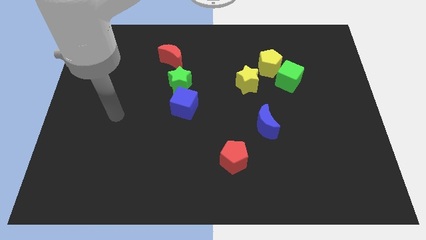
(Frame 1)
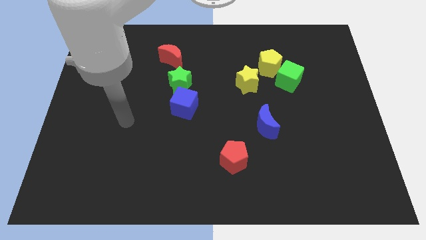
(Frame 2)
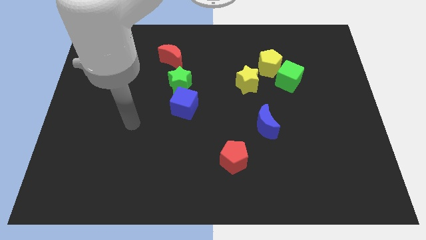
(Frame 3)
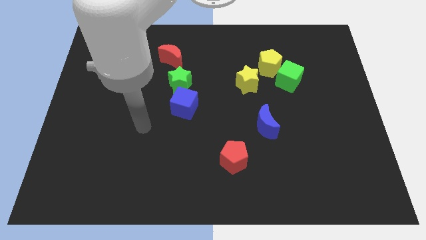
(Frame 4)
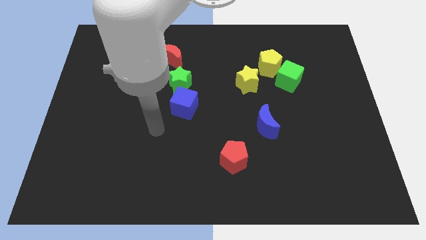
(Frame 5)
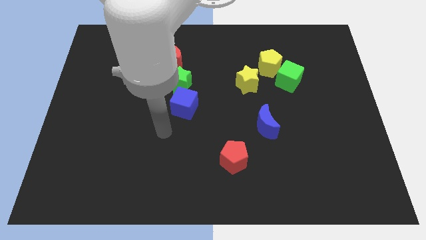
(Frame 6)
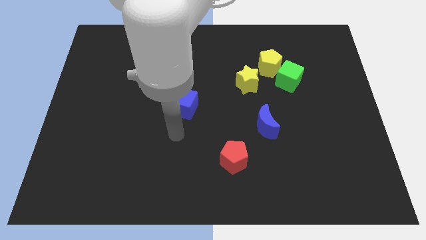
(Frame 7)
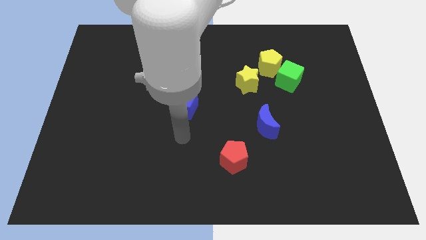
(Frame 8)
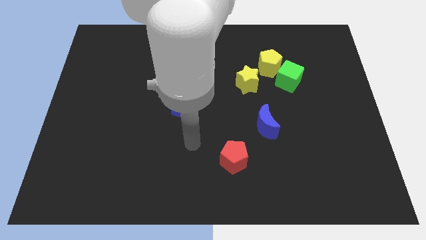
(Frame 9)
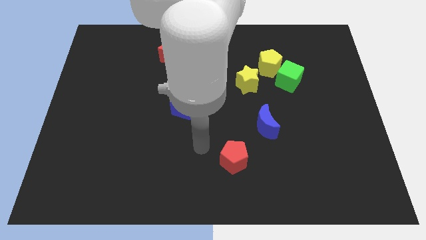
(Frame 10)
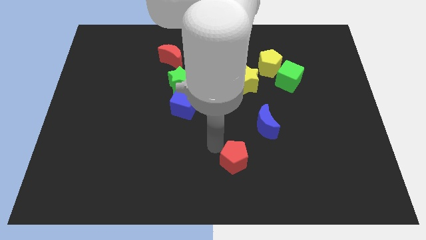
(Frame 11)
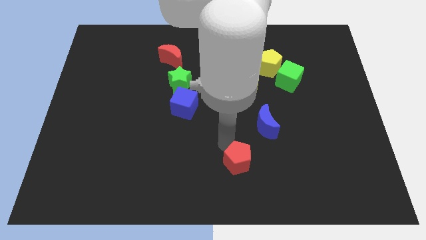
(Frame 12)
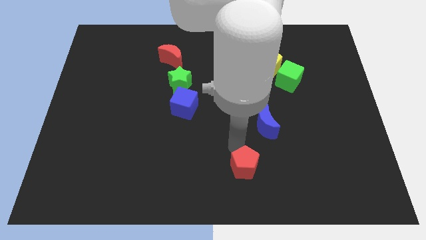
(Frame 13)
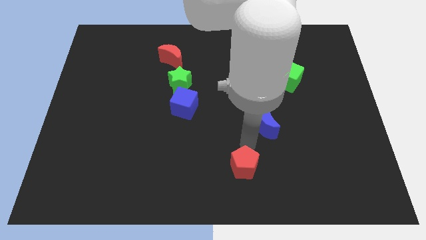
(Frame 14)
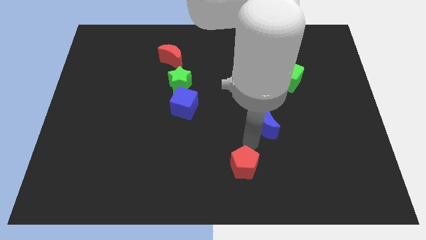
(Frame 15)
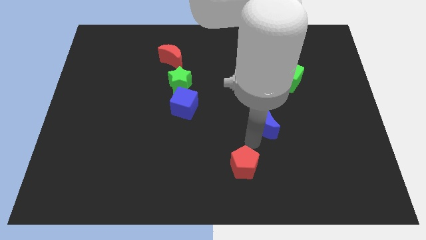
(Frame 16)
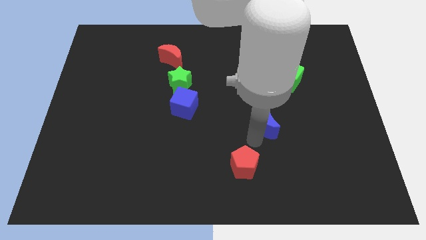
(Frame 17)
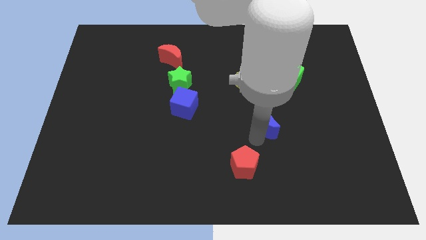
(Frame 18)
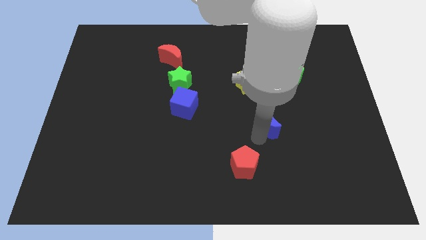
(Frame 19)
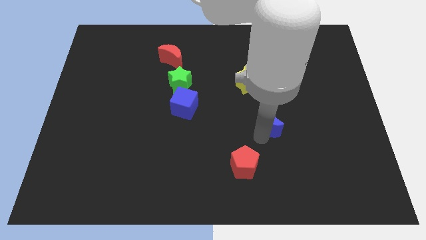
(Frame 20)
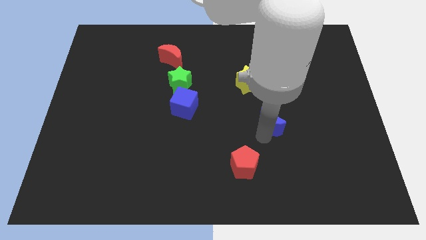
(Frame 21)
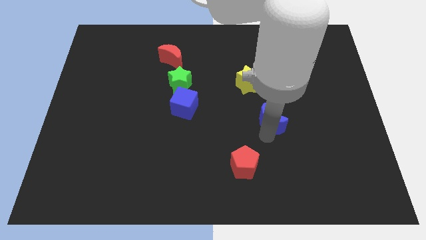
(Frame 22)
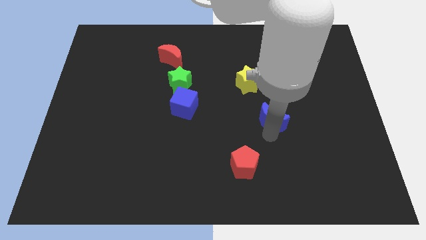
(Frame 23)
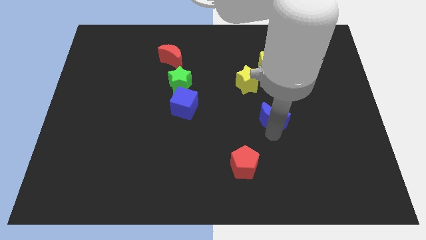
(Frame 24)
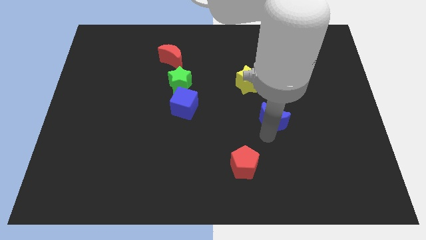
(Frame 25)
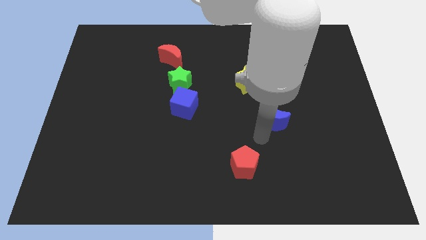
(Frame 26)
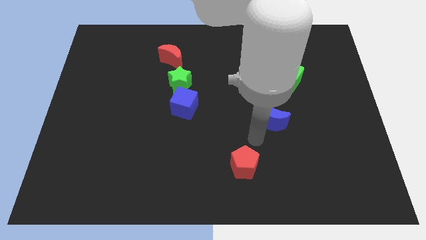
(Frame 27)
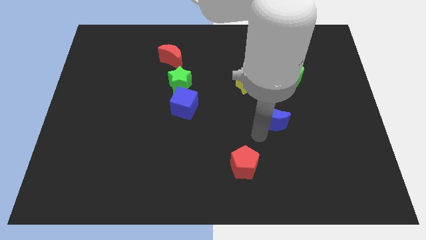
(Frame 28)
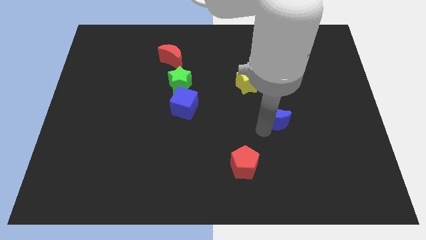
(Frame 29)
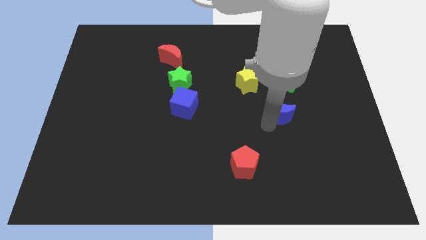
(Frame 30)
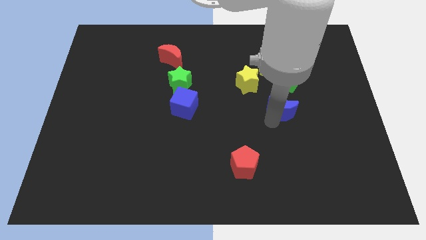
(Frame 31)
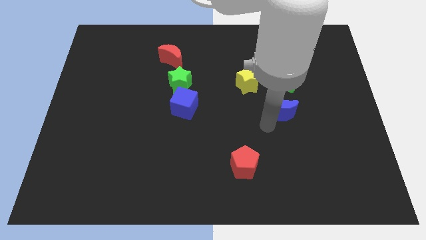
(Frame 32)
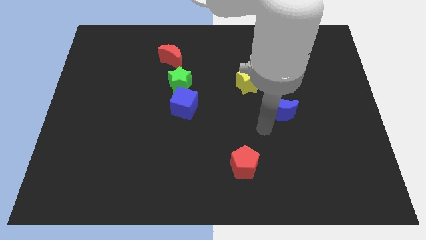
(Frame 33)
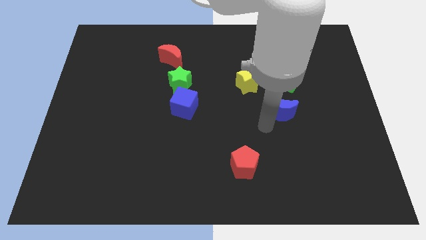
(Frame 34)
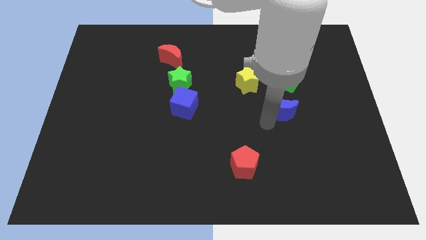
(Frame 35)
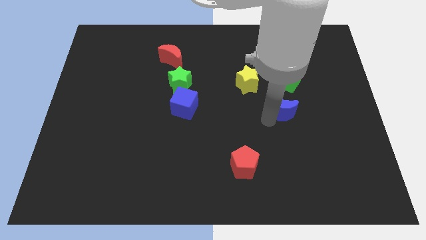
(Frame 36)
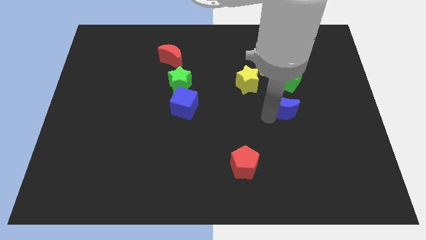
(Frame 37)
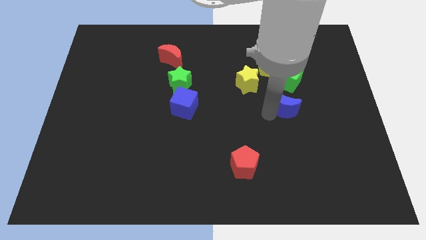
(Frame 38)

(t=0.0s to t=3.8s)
move the blue moon a little diagonally upwards and to the right

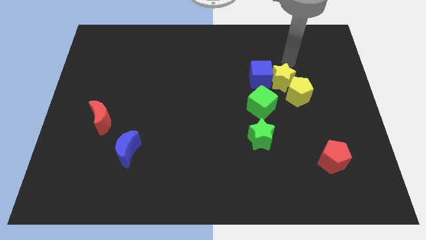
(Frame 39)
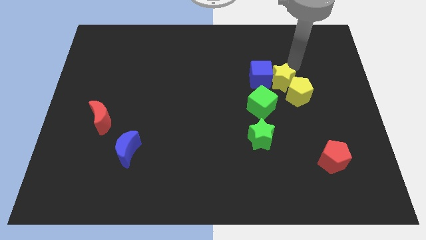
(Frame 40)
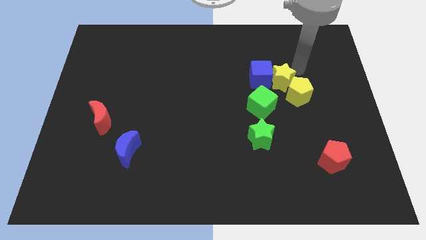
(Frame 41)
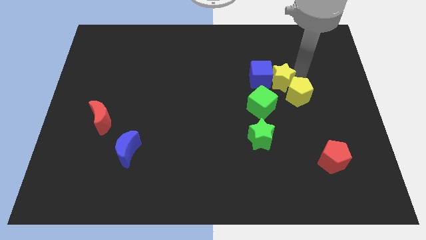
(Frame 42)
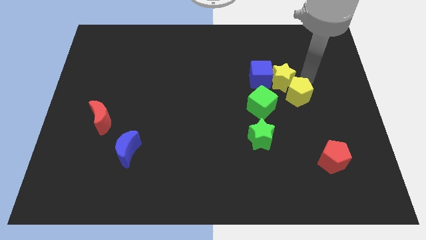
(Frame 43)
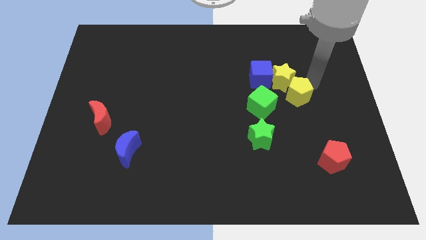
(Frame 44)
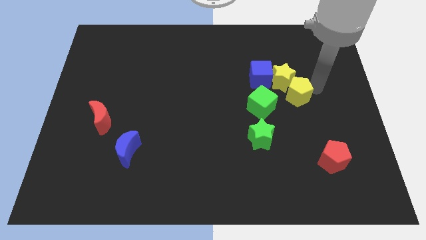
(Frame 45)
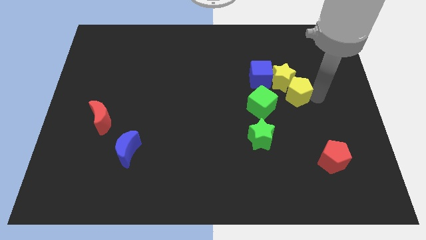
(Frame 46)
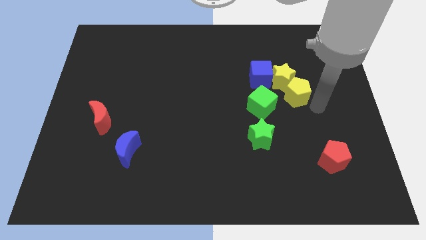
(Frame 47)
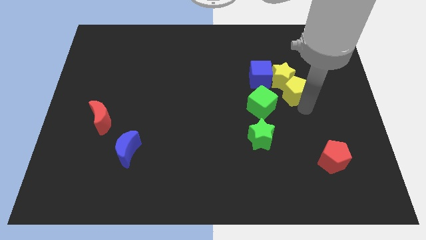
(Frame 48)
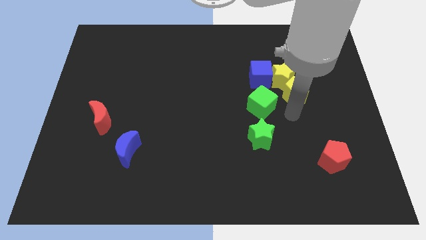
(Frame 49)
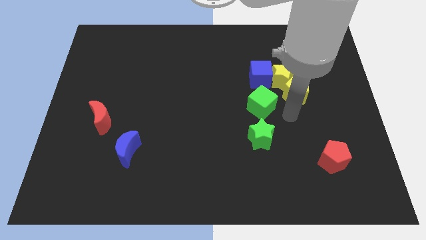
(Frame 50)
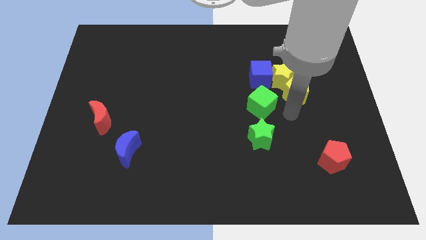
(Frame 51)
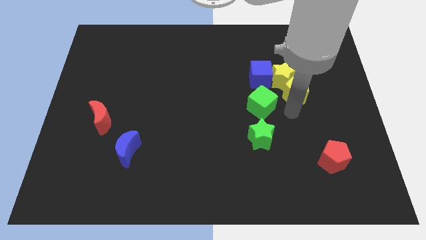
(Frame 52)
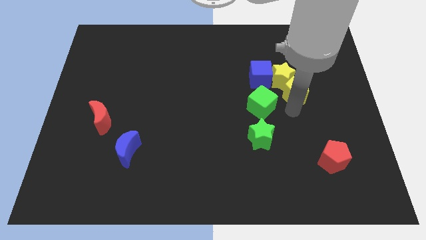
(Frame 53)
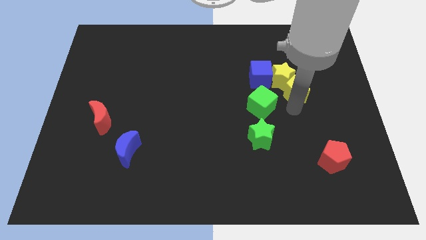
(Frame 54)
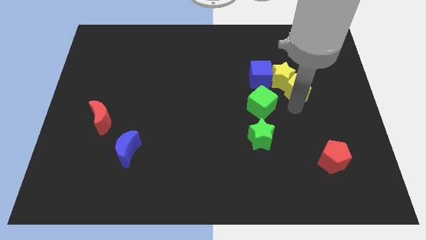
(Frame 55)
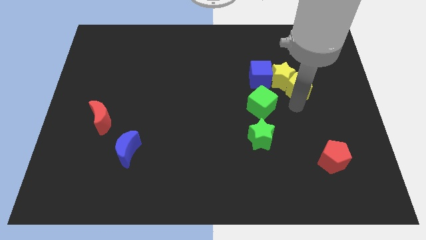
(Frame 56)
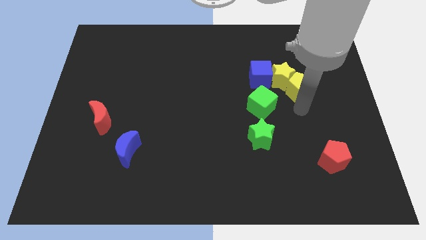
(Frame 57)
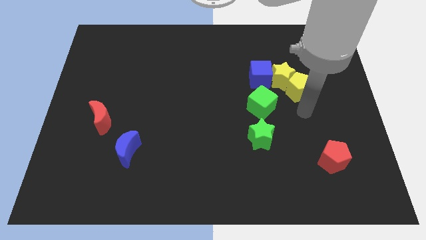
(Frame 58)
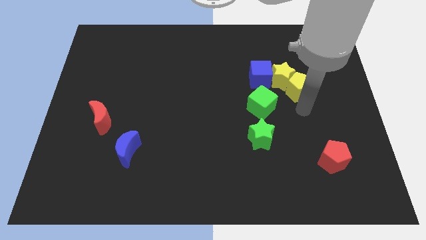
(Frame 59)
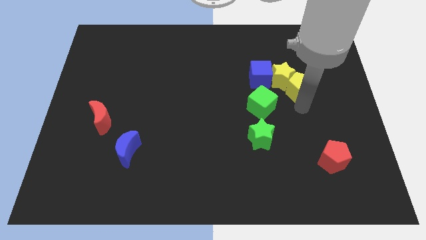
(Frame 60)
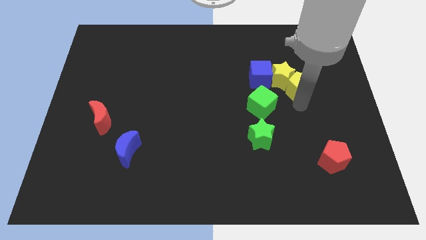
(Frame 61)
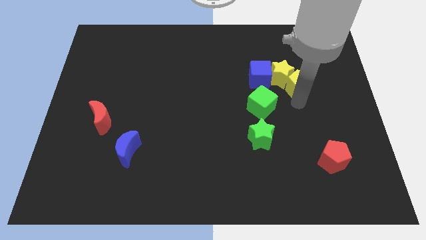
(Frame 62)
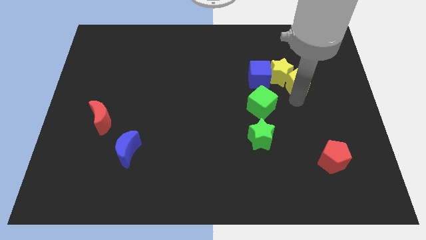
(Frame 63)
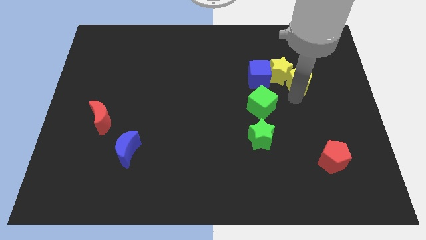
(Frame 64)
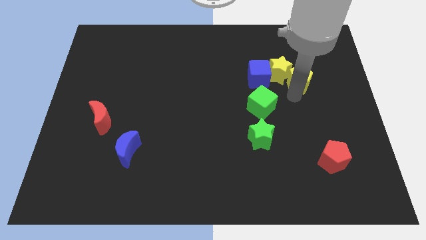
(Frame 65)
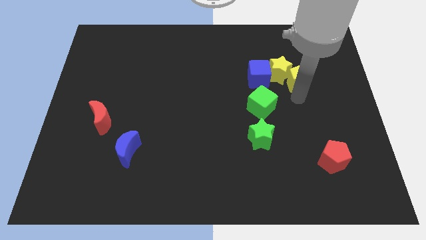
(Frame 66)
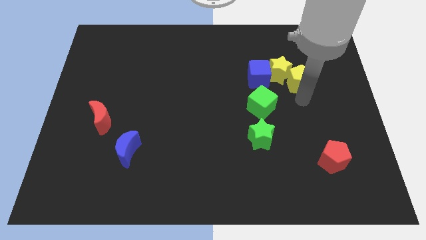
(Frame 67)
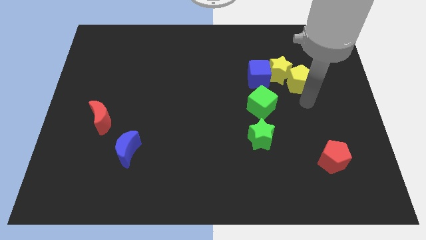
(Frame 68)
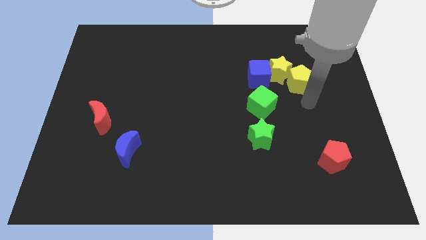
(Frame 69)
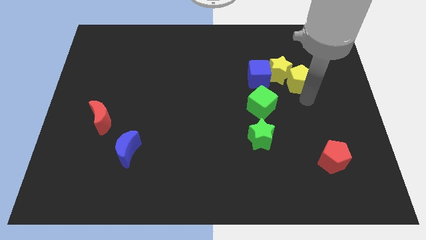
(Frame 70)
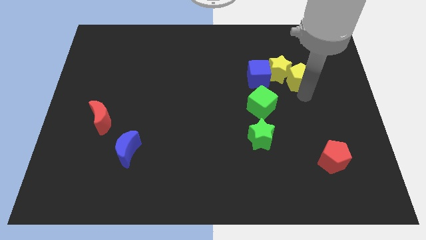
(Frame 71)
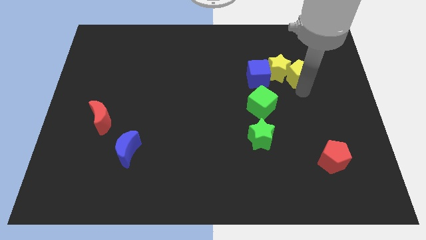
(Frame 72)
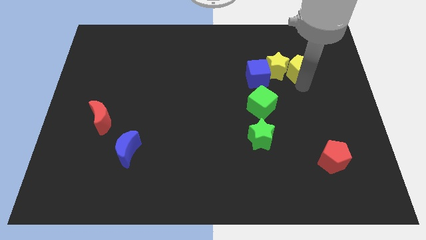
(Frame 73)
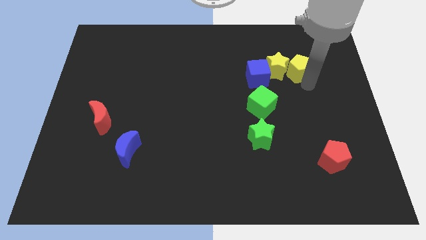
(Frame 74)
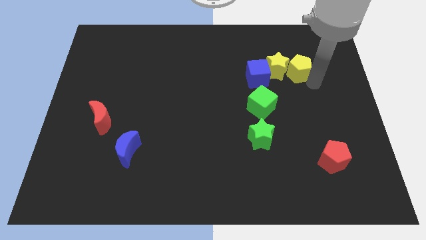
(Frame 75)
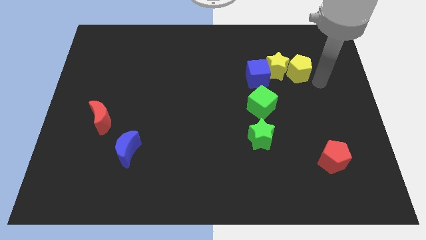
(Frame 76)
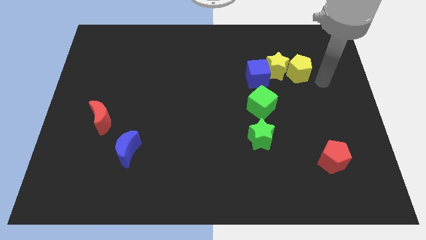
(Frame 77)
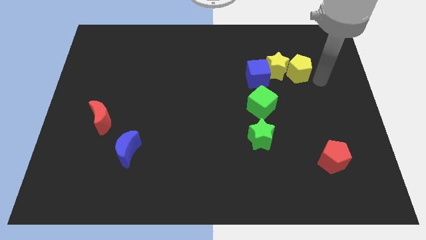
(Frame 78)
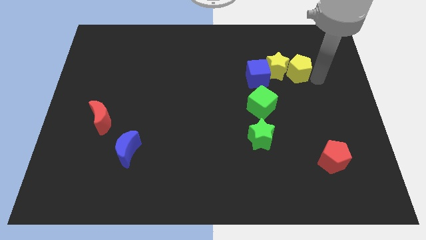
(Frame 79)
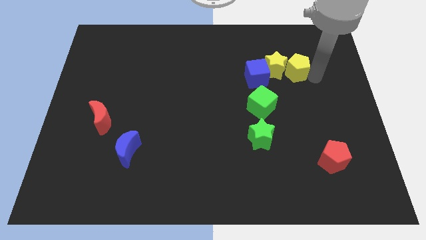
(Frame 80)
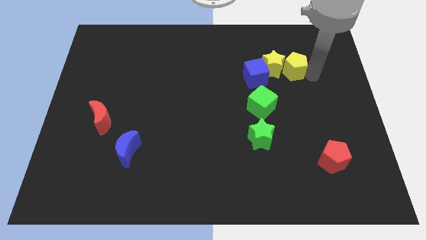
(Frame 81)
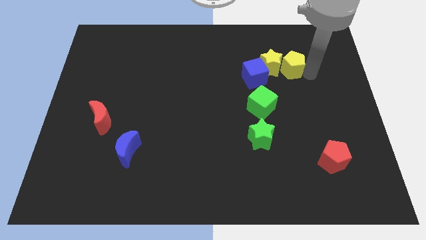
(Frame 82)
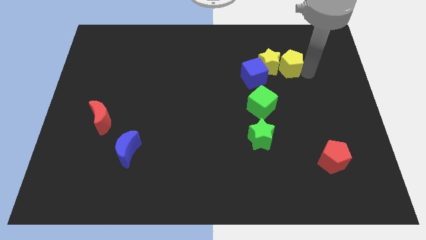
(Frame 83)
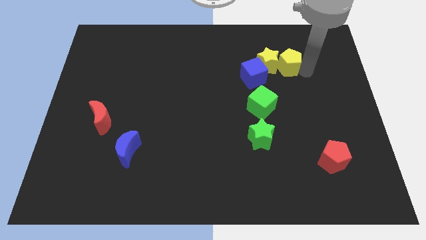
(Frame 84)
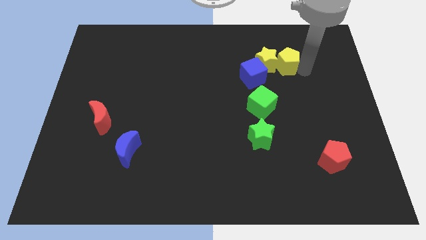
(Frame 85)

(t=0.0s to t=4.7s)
push the yellow pentagon diagonally up and left a bit
